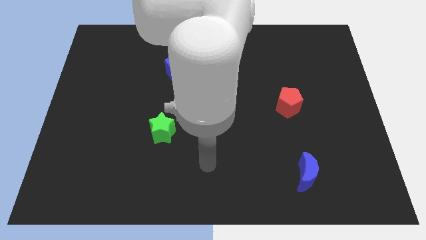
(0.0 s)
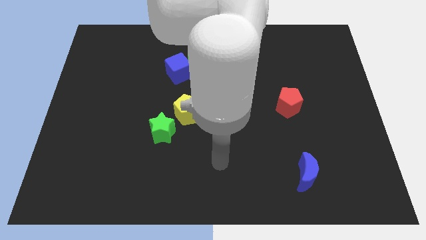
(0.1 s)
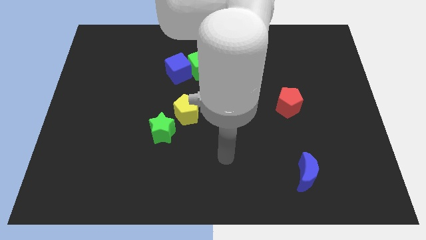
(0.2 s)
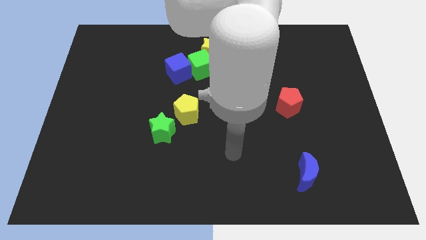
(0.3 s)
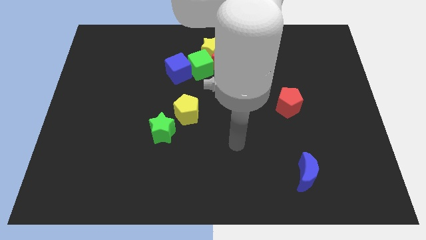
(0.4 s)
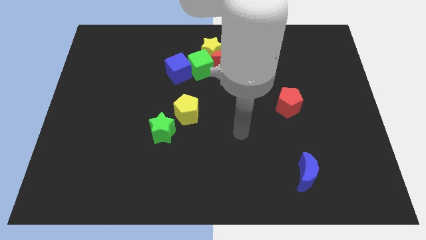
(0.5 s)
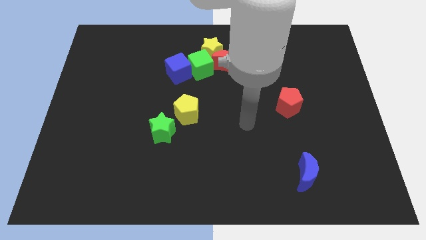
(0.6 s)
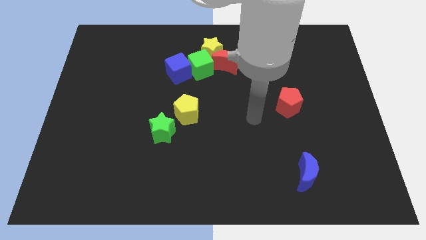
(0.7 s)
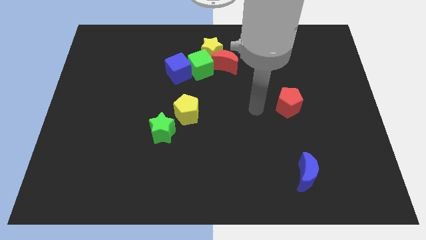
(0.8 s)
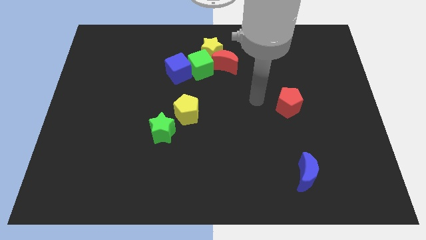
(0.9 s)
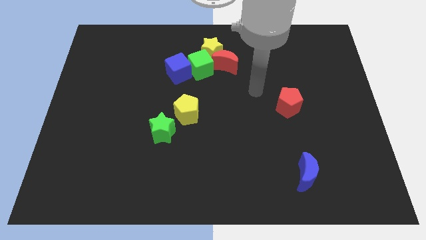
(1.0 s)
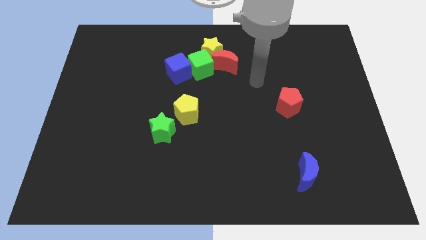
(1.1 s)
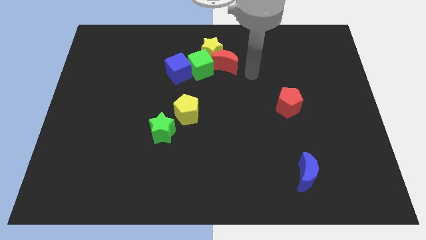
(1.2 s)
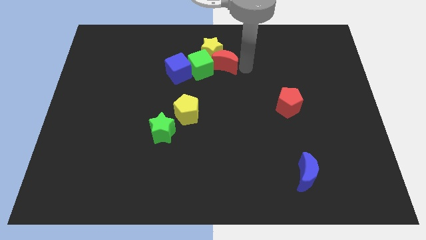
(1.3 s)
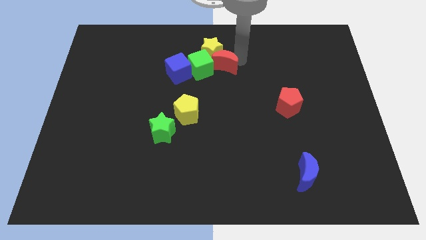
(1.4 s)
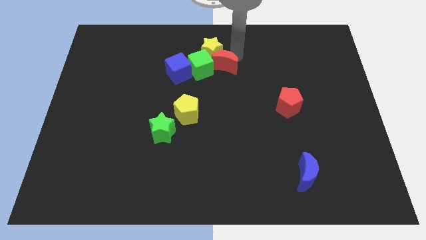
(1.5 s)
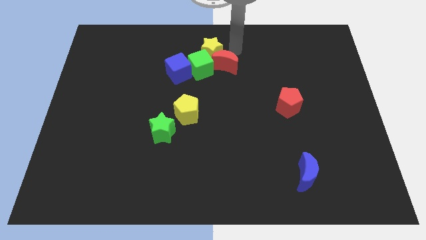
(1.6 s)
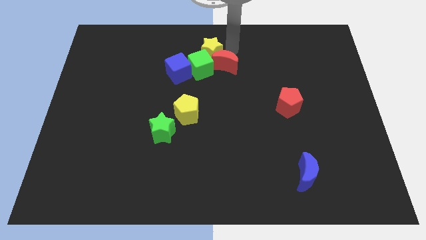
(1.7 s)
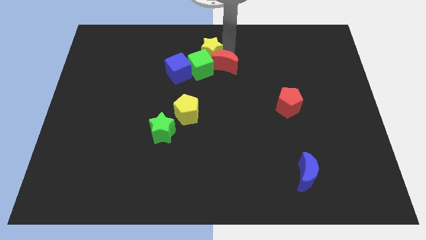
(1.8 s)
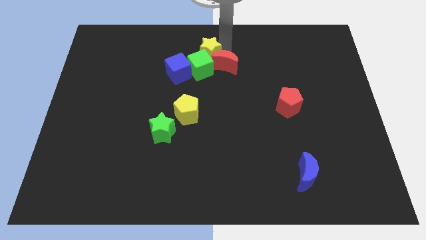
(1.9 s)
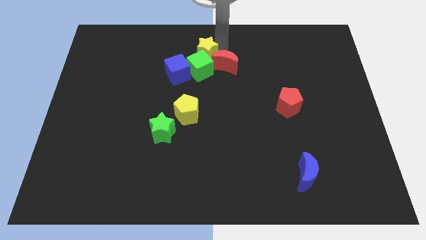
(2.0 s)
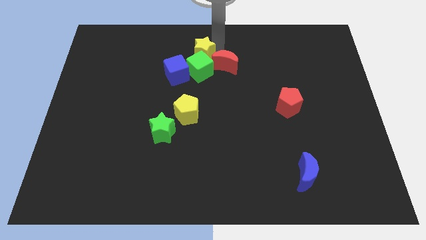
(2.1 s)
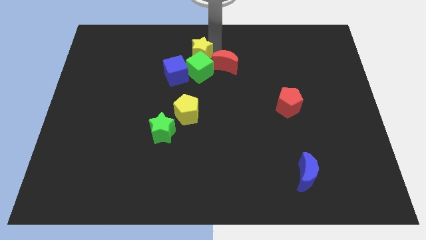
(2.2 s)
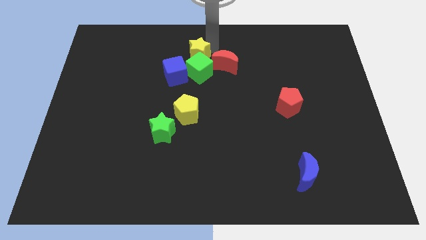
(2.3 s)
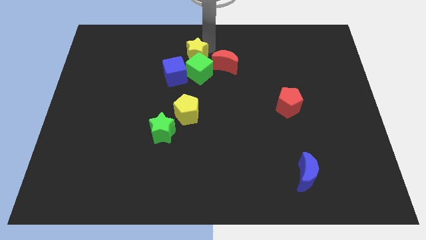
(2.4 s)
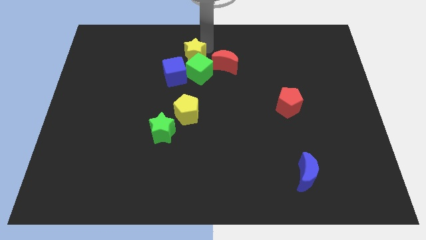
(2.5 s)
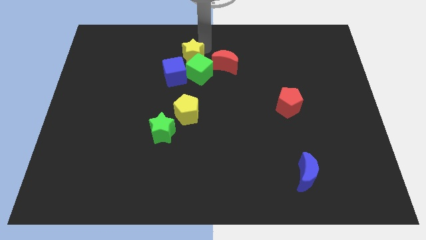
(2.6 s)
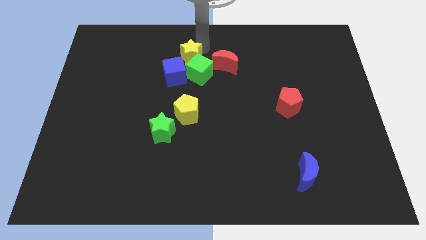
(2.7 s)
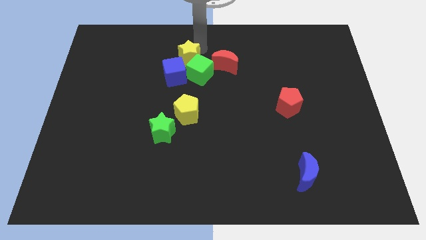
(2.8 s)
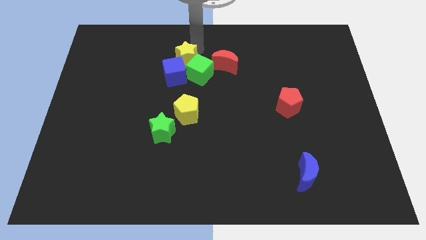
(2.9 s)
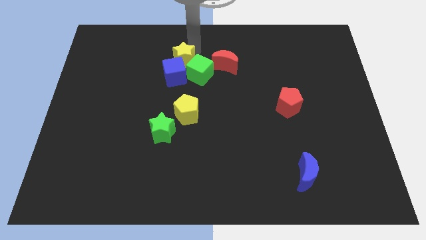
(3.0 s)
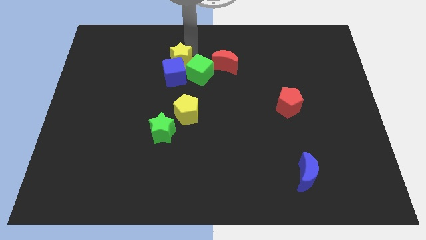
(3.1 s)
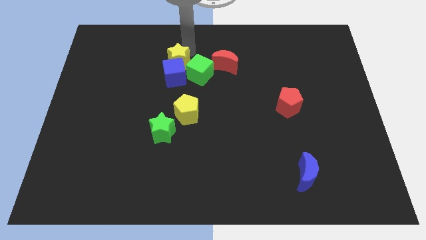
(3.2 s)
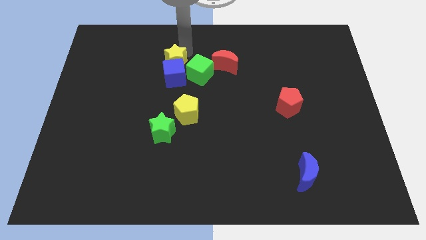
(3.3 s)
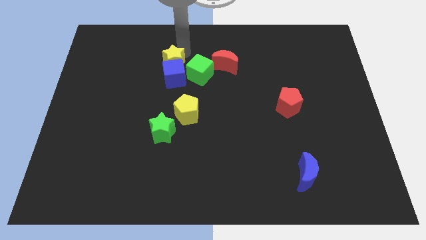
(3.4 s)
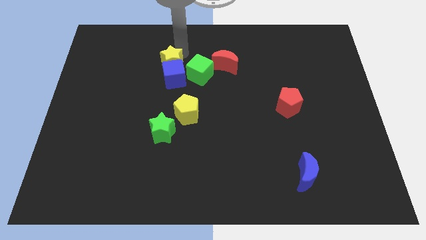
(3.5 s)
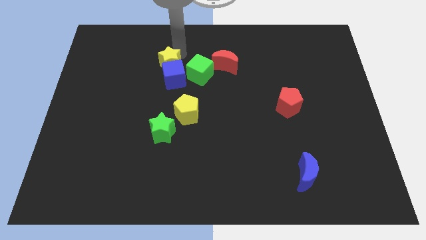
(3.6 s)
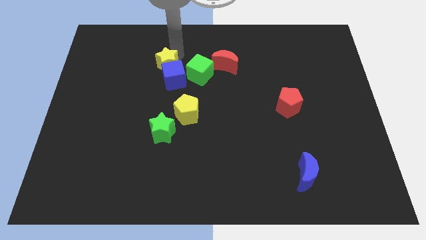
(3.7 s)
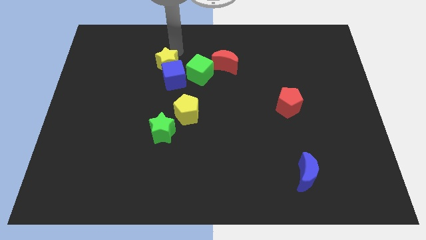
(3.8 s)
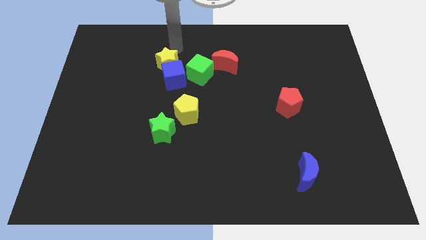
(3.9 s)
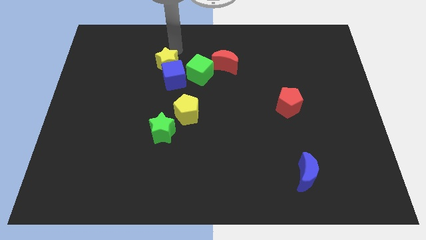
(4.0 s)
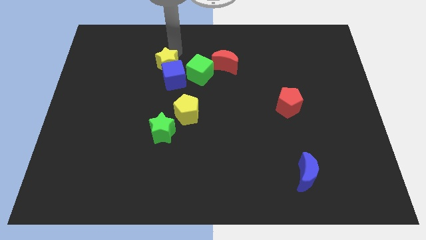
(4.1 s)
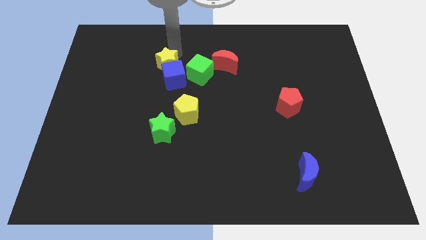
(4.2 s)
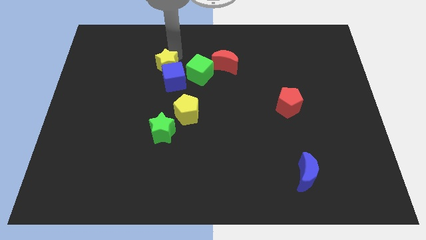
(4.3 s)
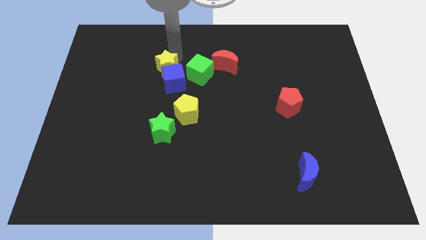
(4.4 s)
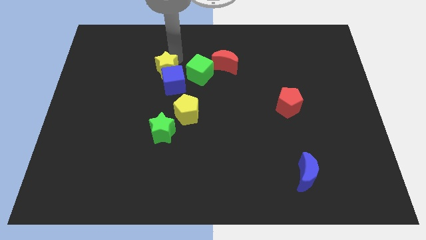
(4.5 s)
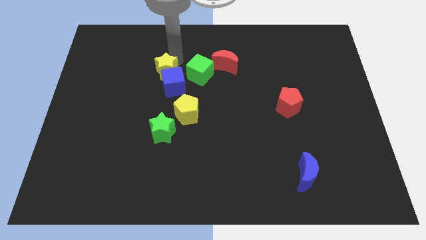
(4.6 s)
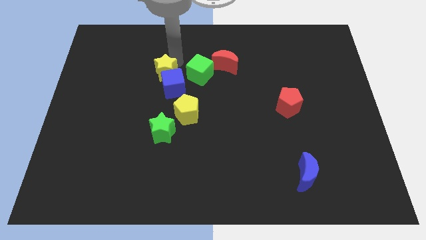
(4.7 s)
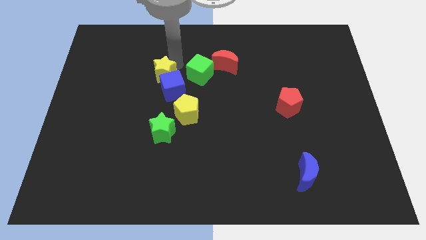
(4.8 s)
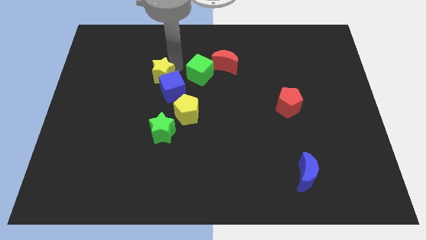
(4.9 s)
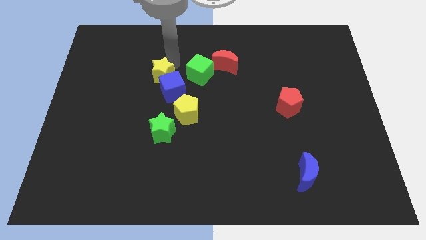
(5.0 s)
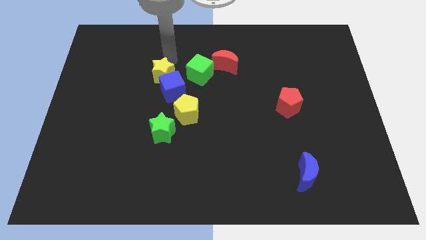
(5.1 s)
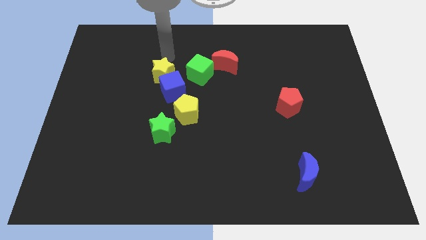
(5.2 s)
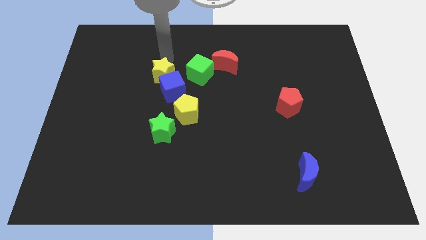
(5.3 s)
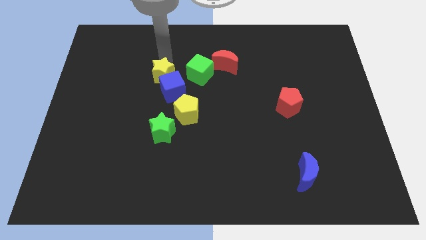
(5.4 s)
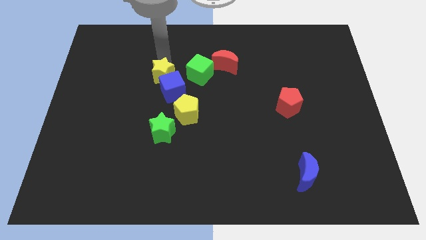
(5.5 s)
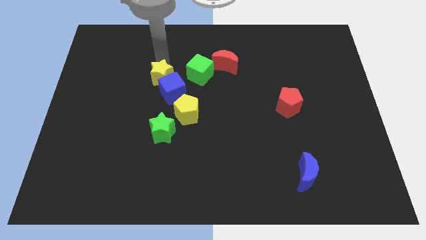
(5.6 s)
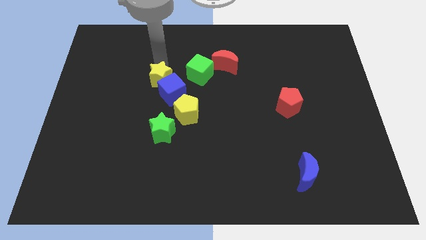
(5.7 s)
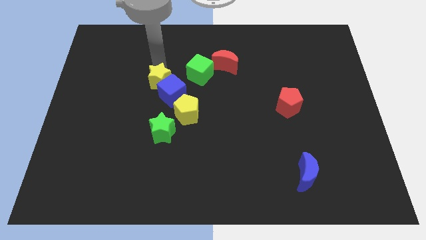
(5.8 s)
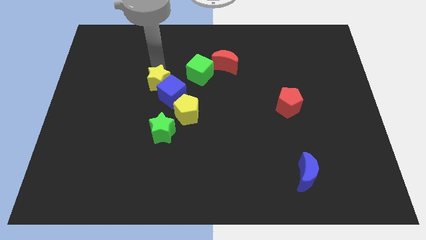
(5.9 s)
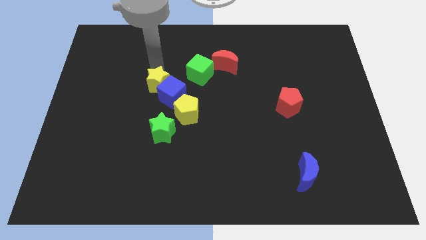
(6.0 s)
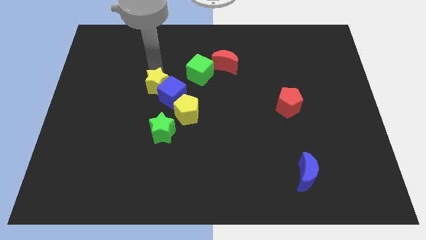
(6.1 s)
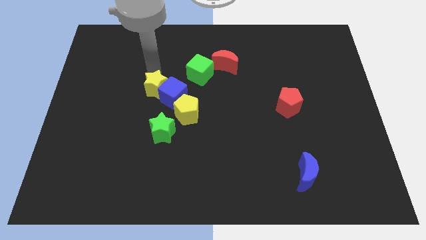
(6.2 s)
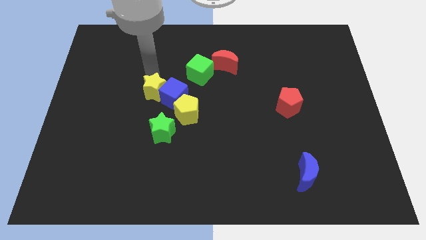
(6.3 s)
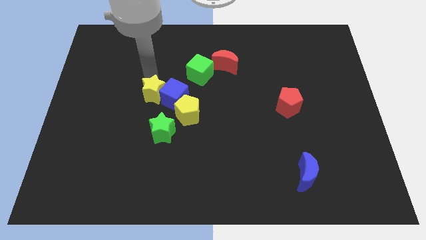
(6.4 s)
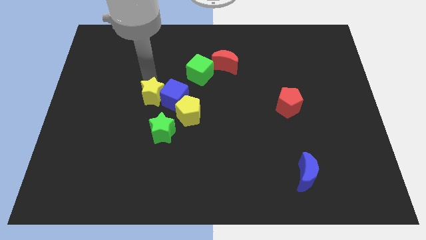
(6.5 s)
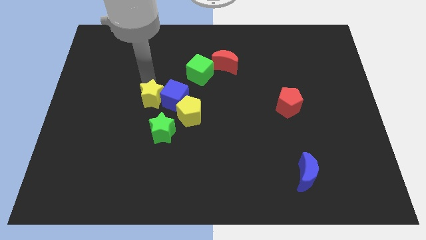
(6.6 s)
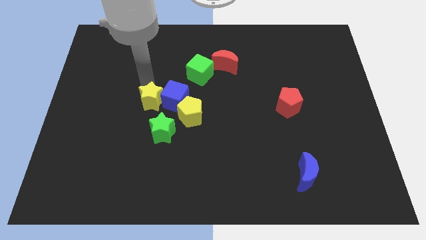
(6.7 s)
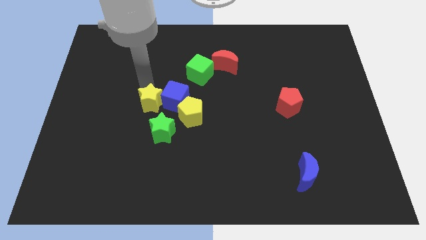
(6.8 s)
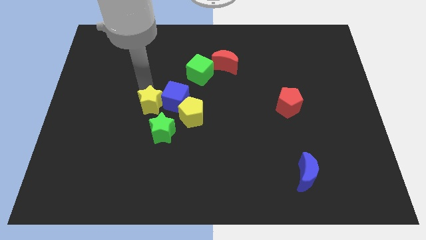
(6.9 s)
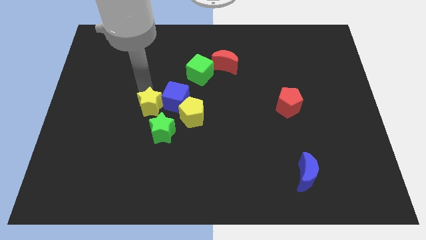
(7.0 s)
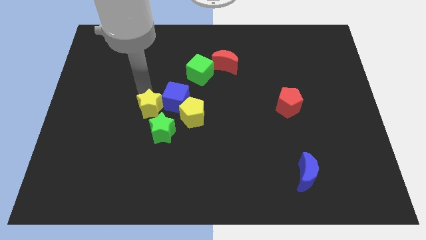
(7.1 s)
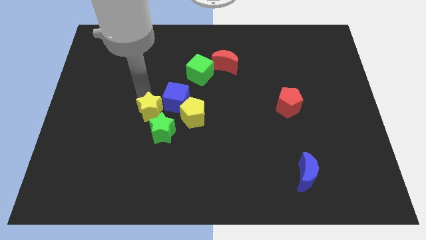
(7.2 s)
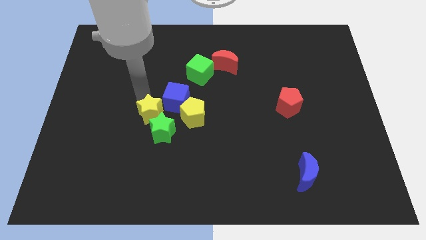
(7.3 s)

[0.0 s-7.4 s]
put the yellow star towards the green star
